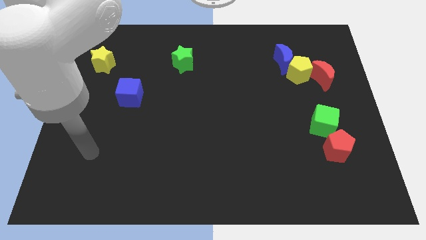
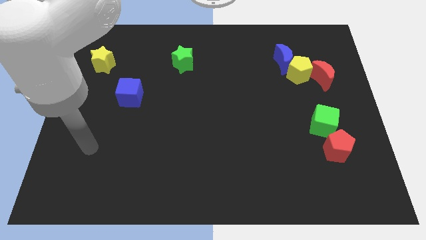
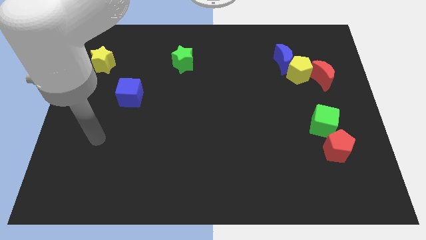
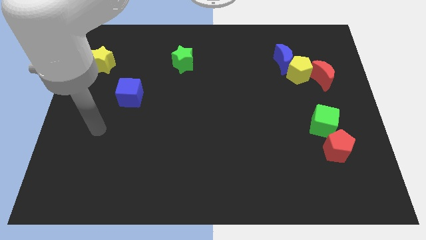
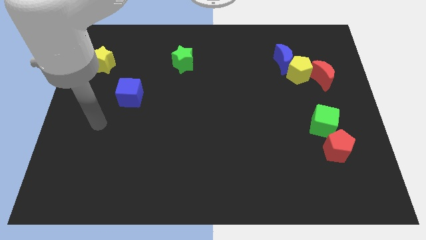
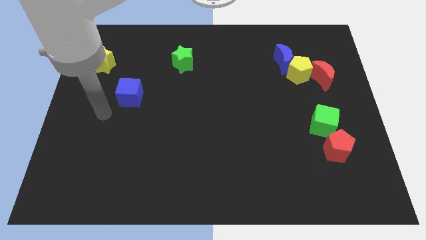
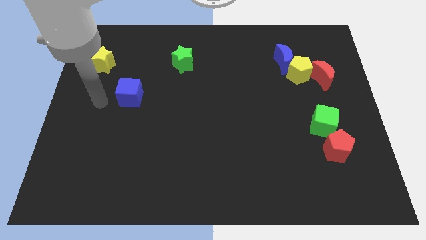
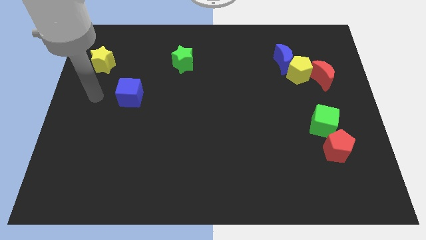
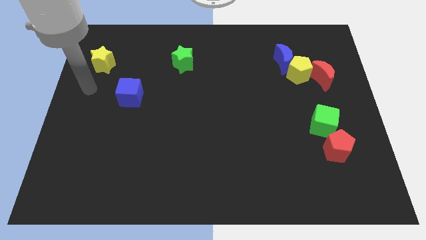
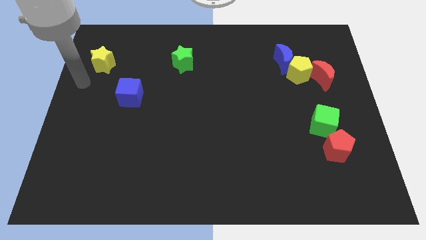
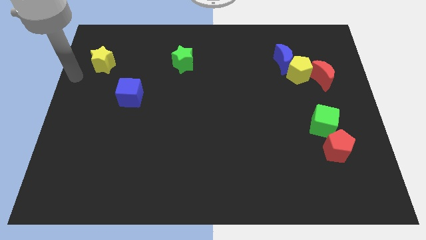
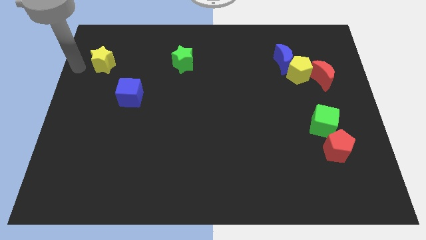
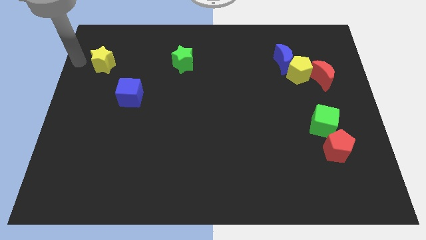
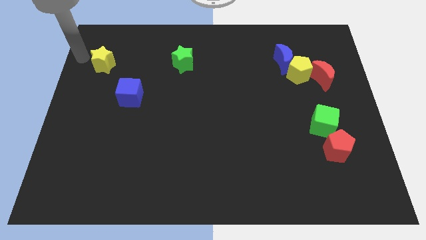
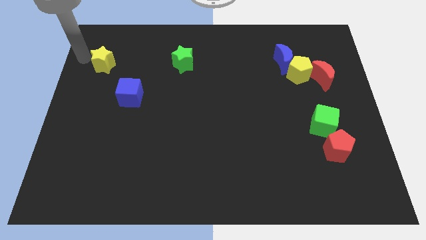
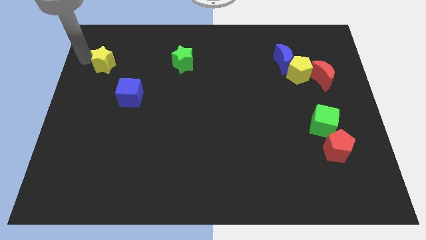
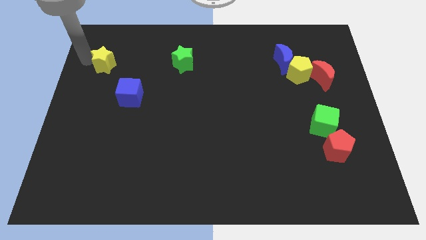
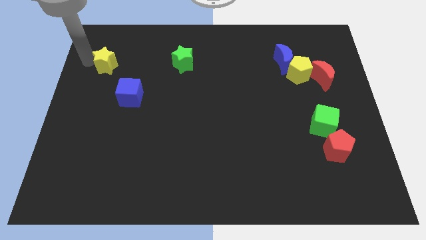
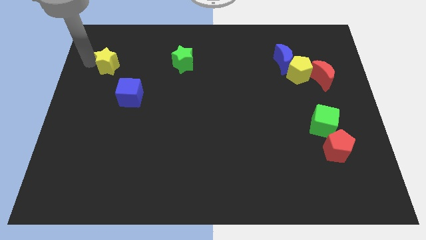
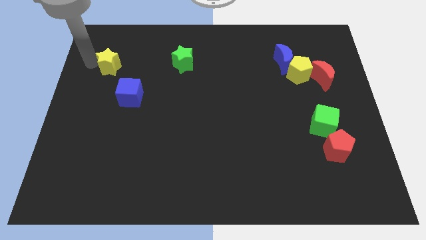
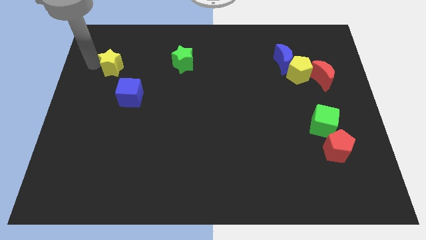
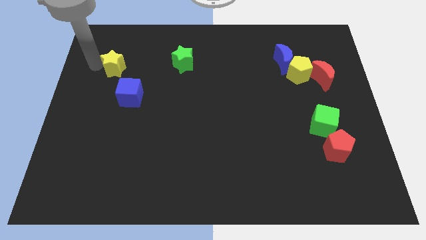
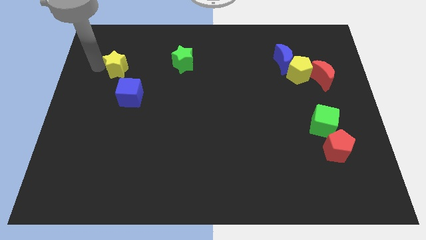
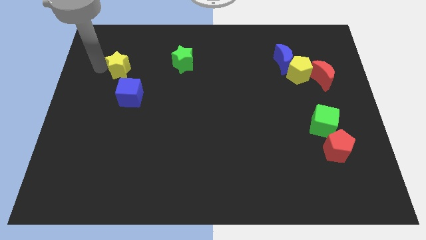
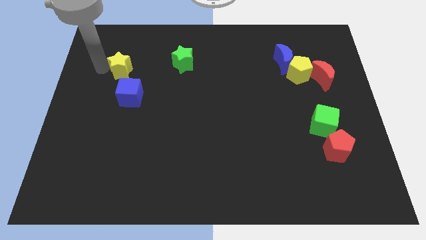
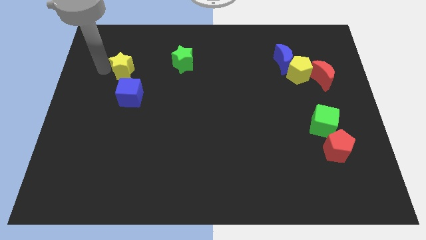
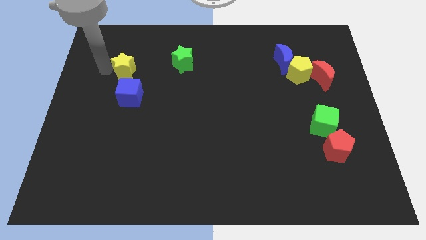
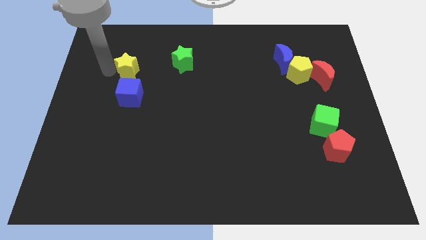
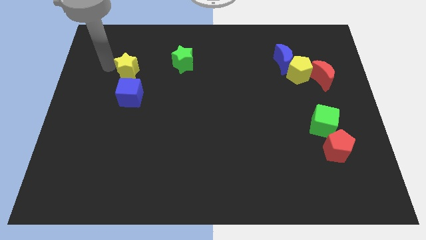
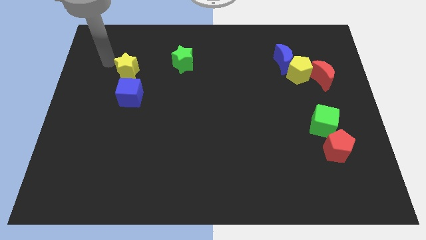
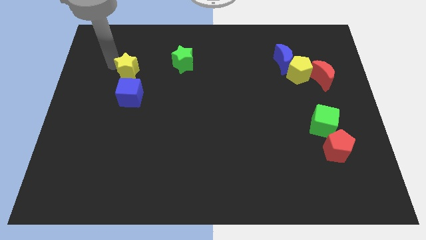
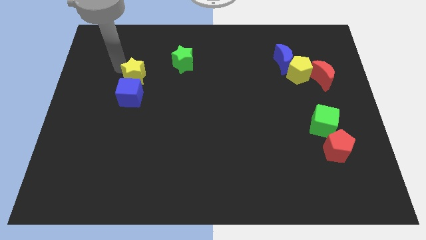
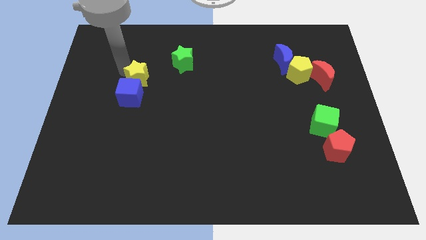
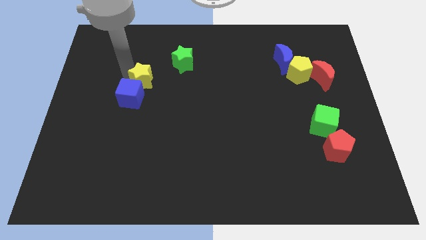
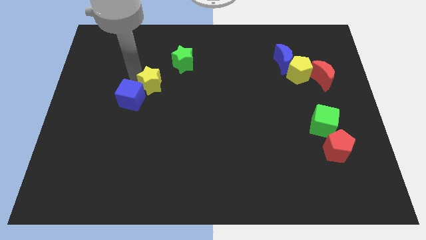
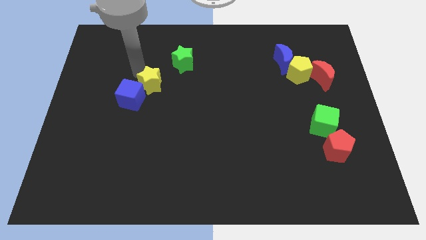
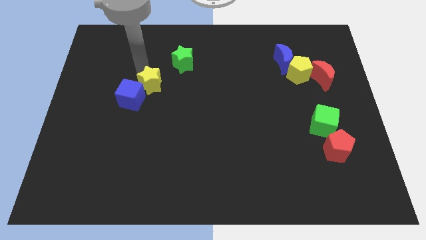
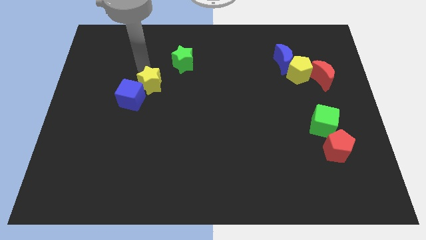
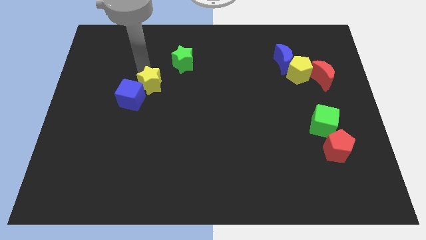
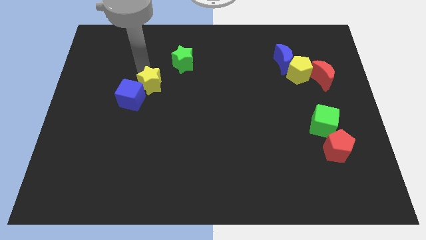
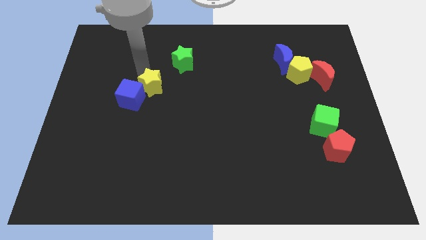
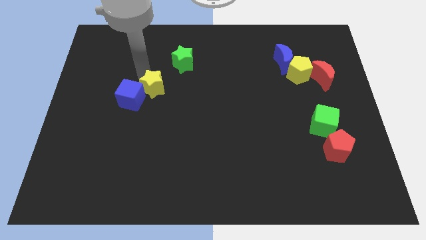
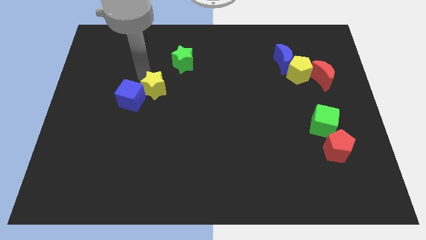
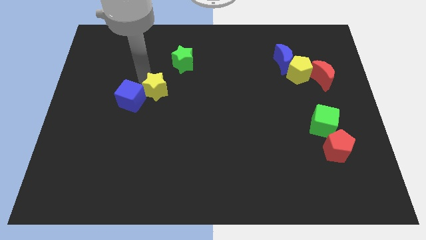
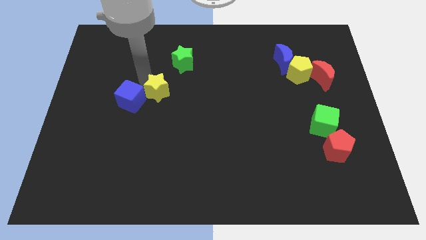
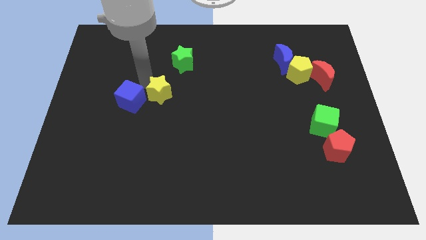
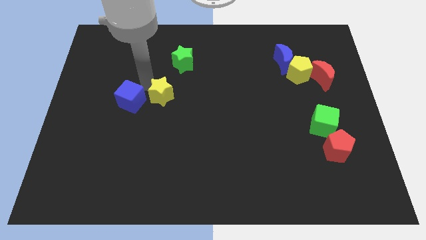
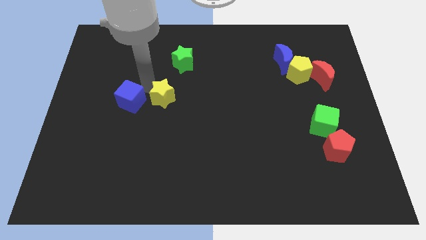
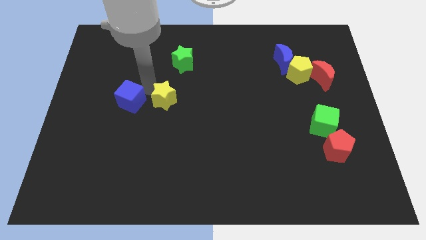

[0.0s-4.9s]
push the yellow star down and then to the right

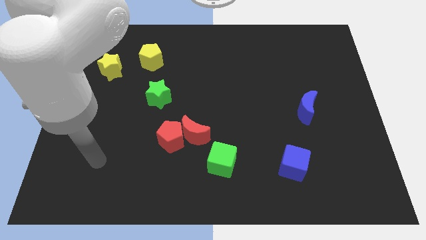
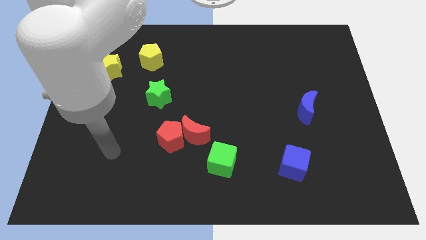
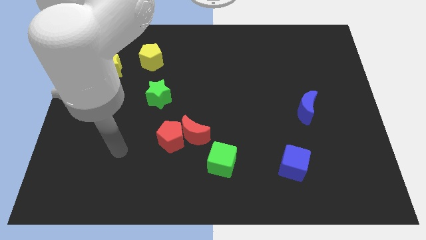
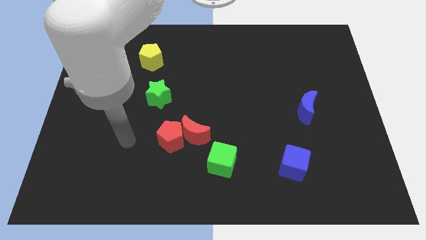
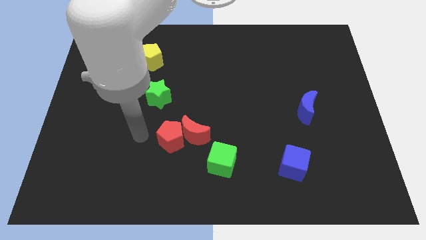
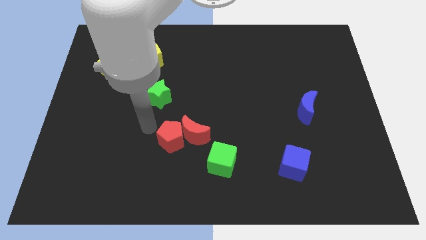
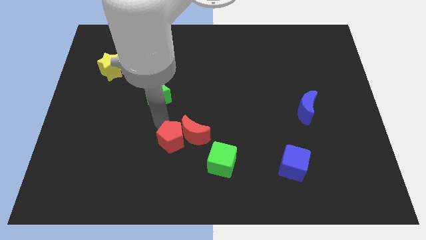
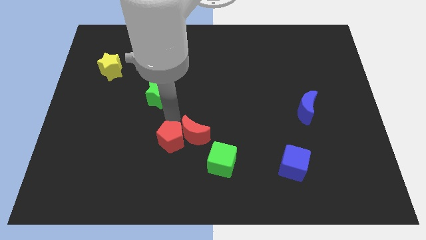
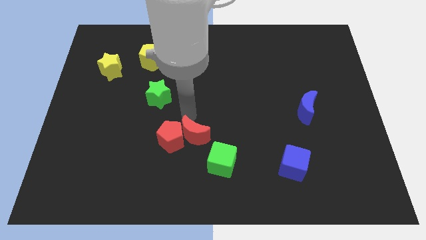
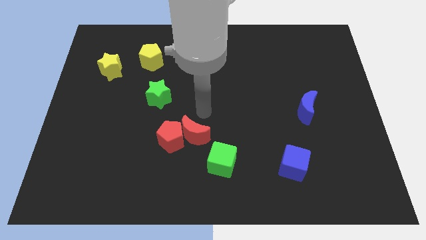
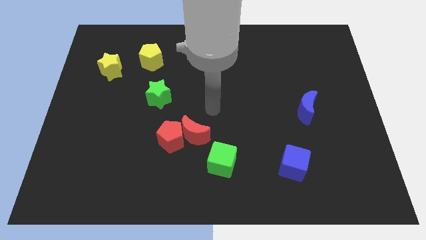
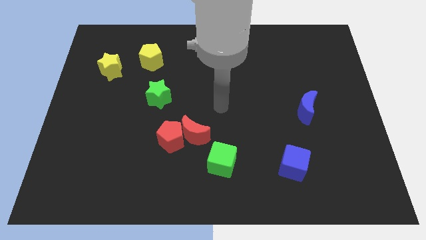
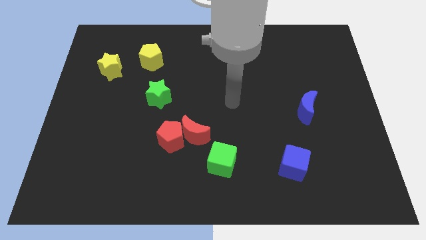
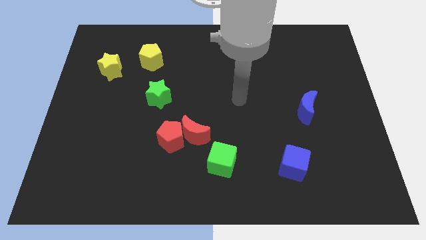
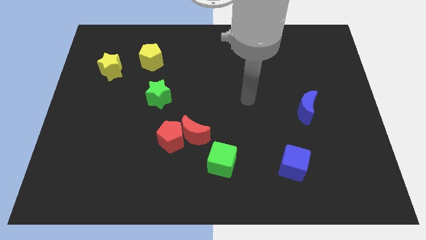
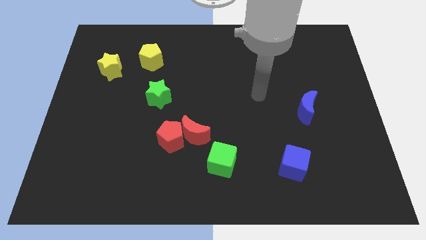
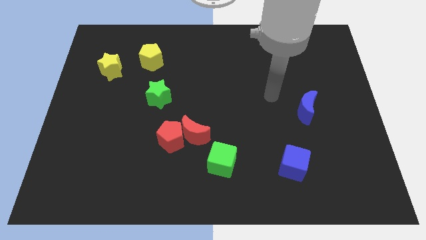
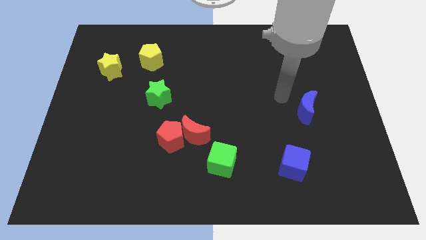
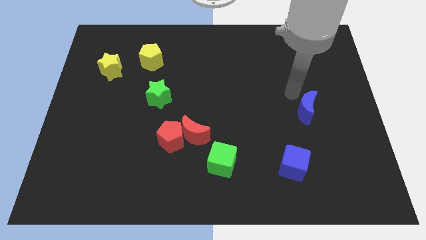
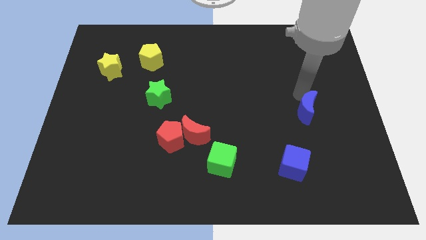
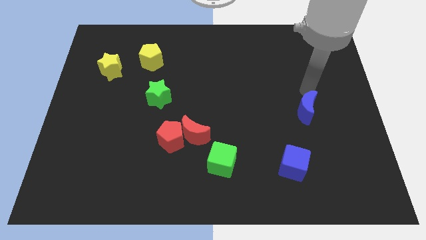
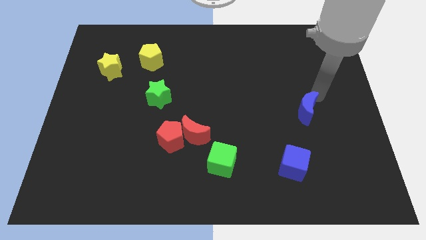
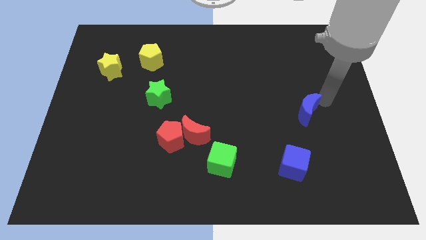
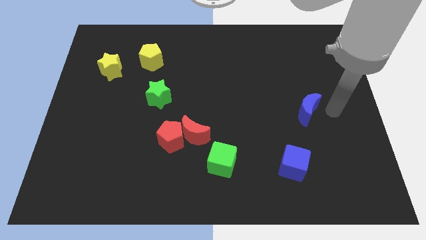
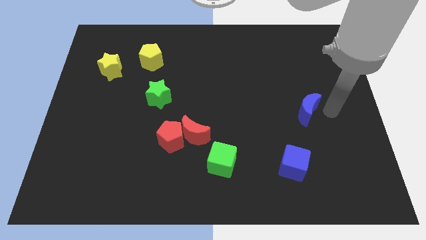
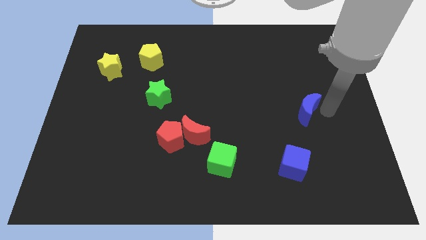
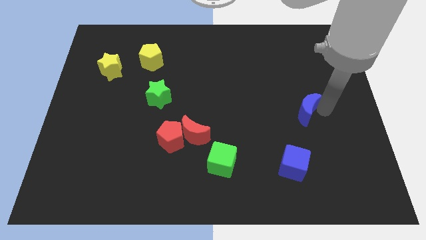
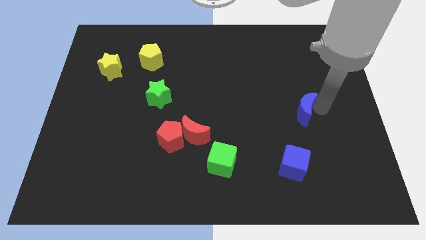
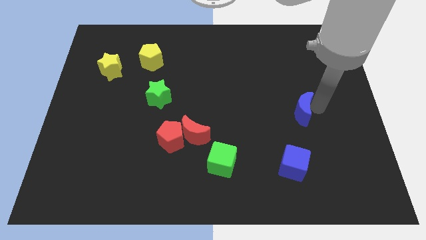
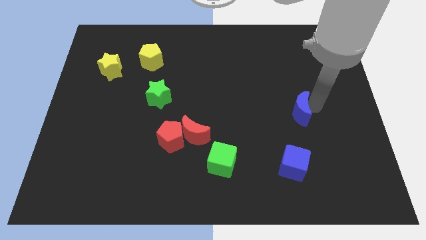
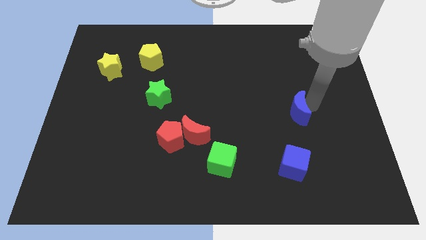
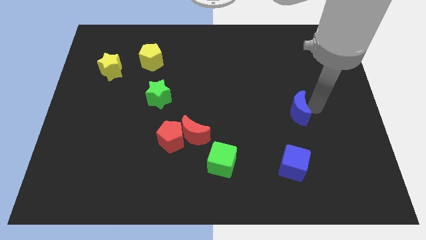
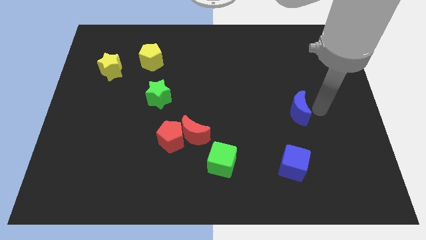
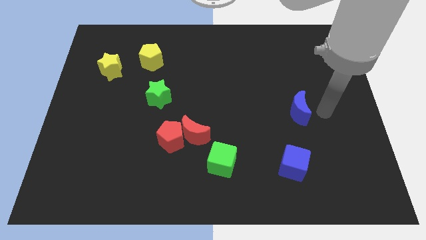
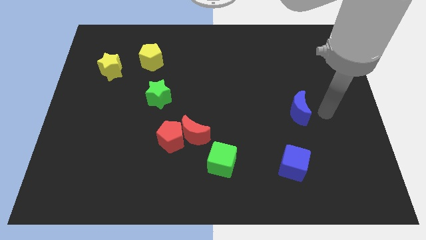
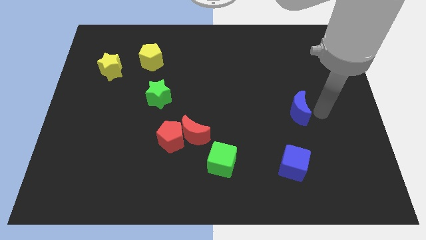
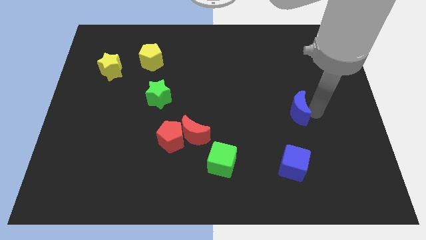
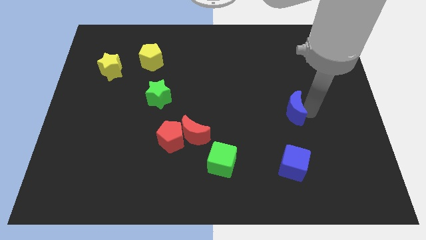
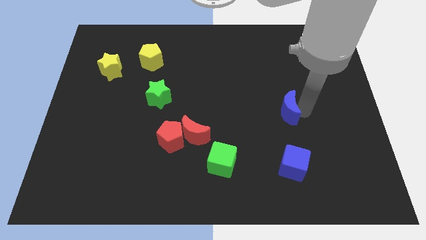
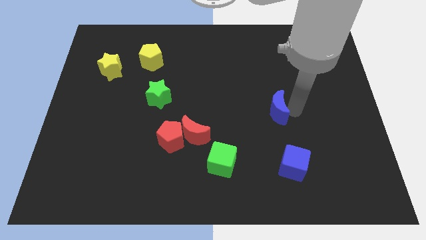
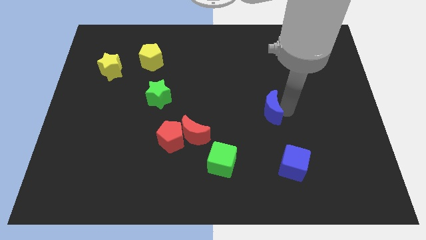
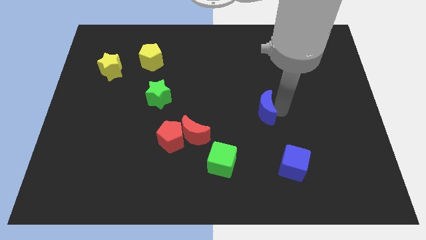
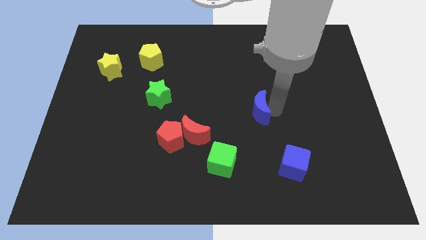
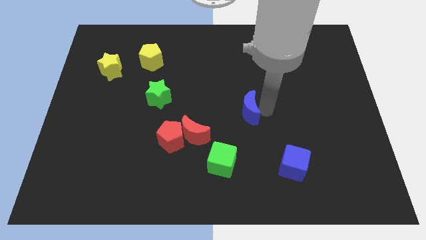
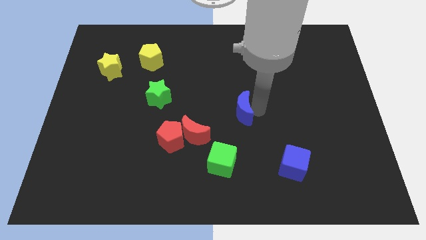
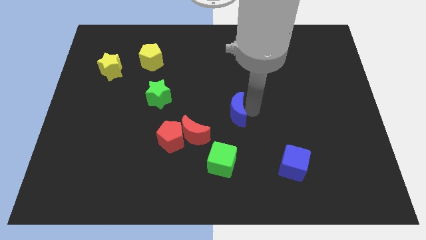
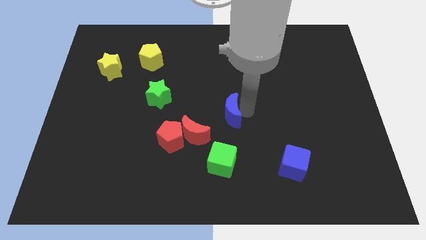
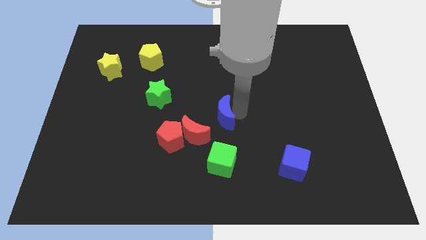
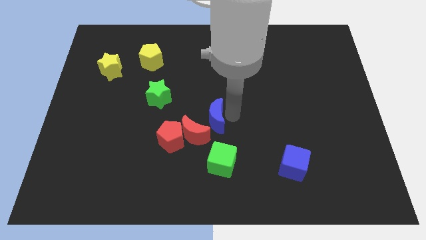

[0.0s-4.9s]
push the blue moon to the left
